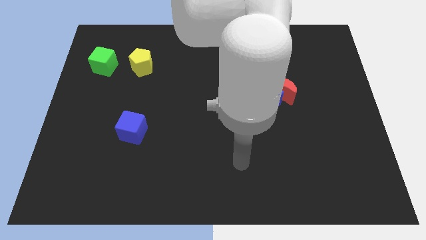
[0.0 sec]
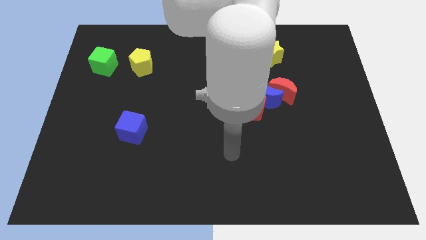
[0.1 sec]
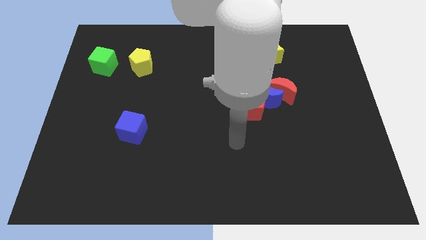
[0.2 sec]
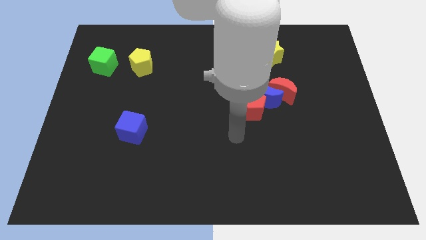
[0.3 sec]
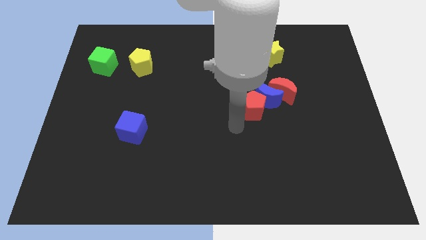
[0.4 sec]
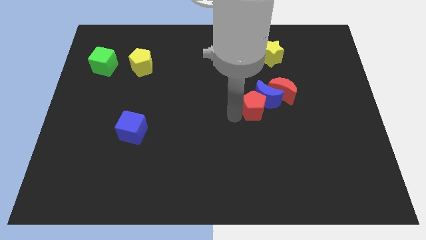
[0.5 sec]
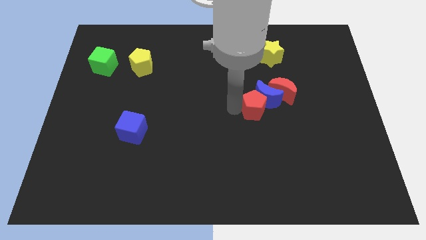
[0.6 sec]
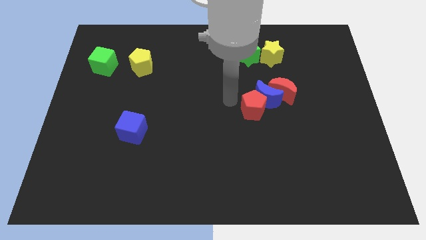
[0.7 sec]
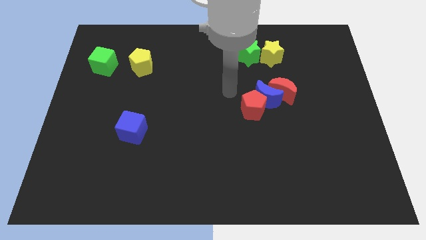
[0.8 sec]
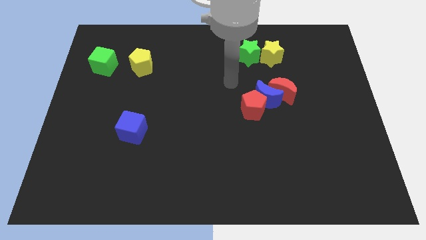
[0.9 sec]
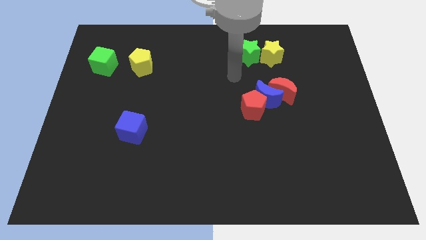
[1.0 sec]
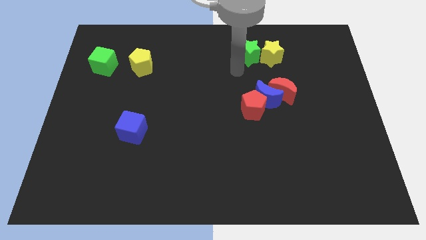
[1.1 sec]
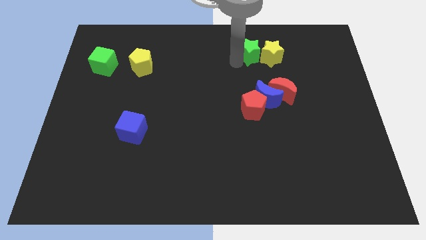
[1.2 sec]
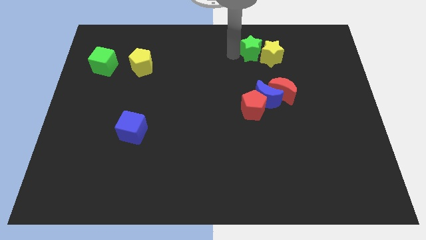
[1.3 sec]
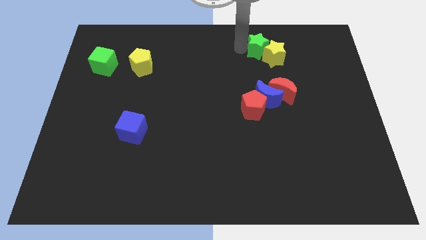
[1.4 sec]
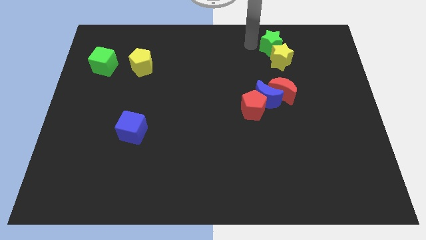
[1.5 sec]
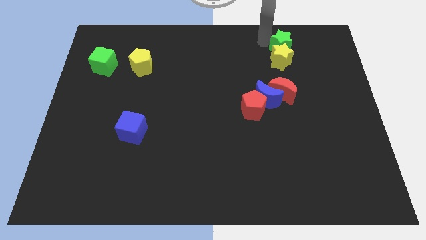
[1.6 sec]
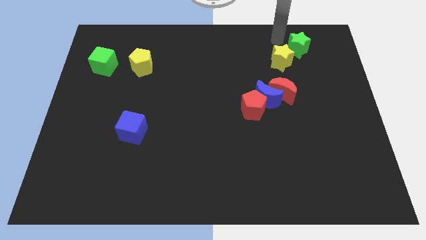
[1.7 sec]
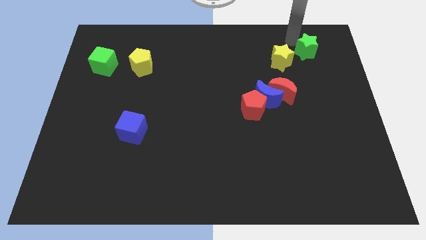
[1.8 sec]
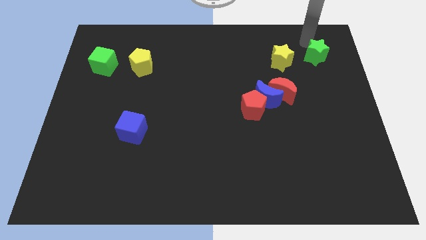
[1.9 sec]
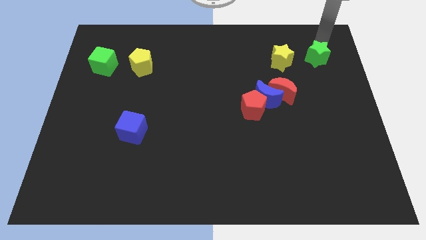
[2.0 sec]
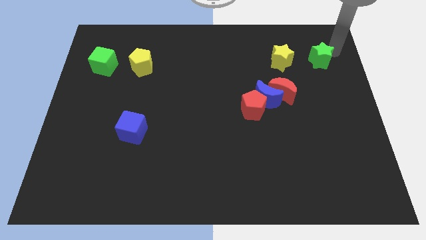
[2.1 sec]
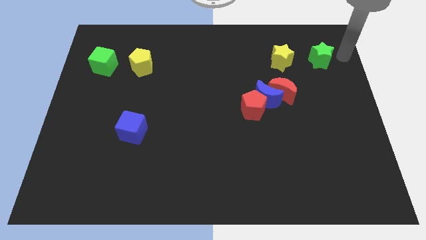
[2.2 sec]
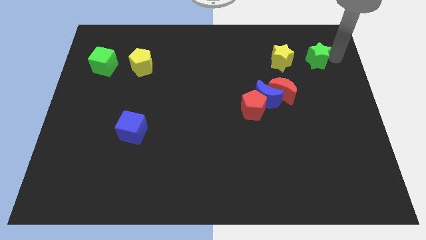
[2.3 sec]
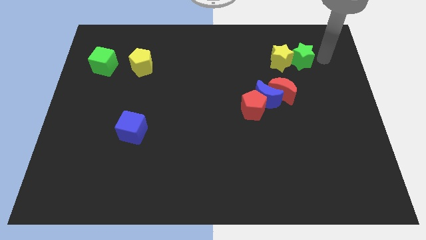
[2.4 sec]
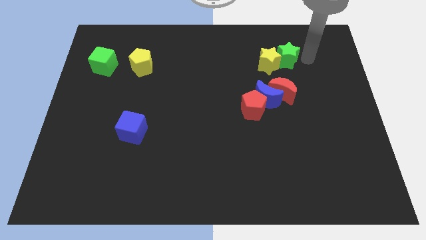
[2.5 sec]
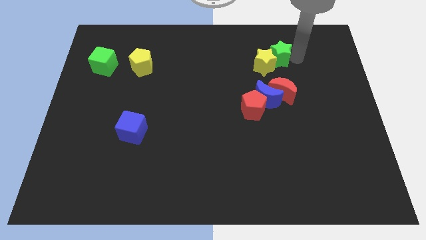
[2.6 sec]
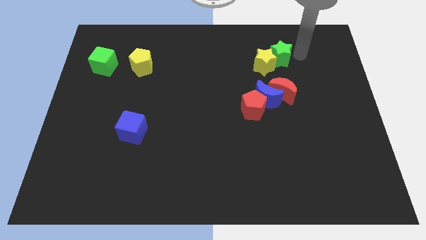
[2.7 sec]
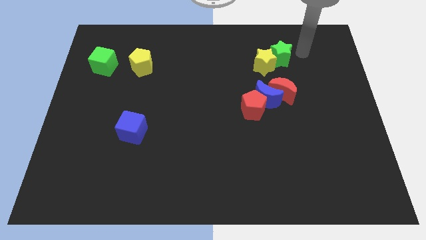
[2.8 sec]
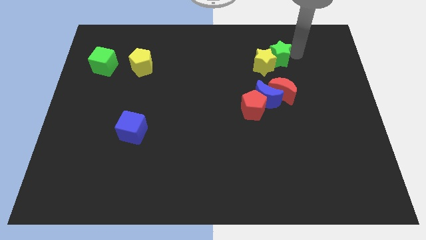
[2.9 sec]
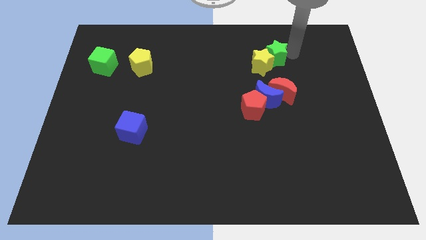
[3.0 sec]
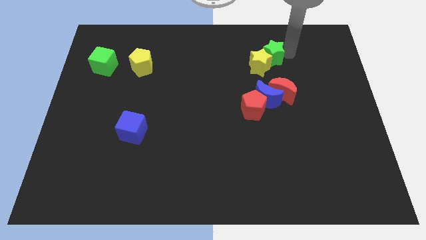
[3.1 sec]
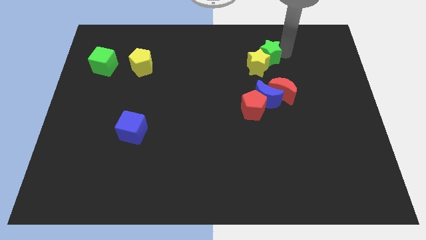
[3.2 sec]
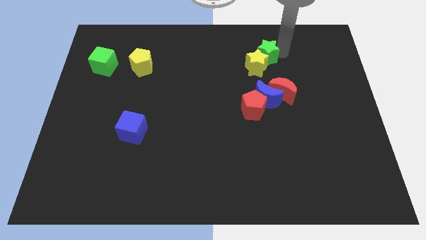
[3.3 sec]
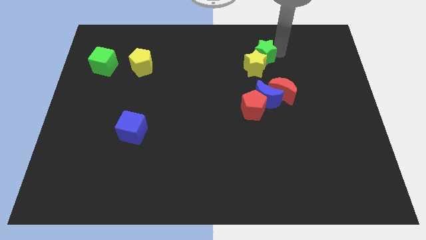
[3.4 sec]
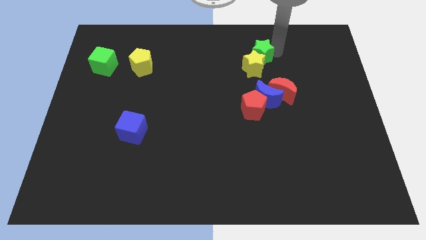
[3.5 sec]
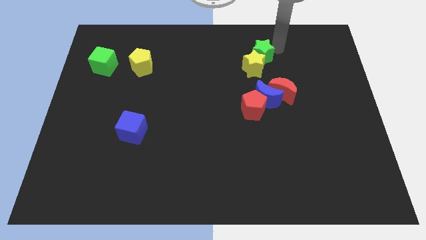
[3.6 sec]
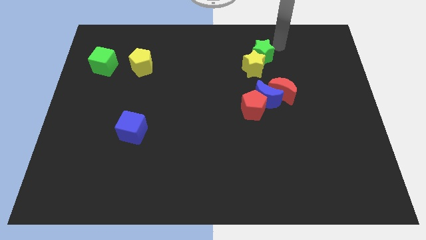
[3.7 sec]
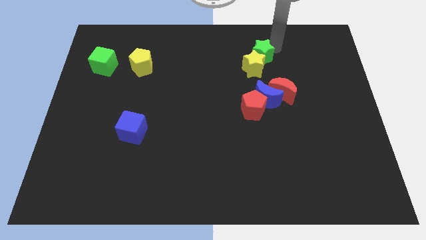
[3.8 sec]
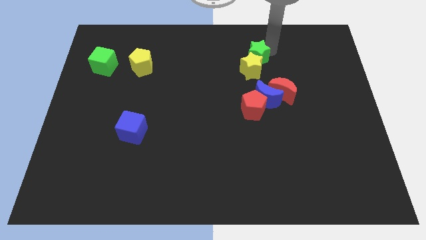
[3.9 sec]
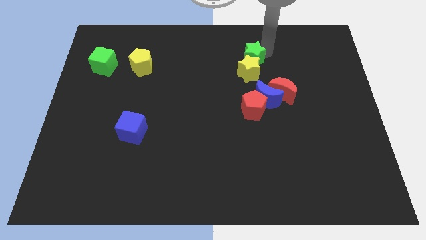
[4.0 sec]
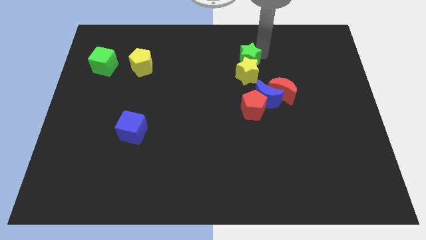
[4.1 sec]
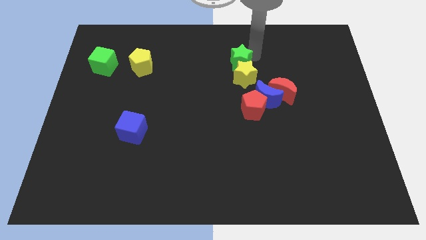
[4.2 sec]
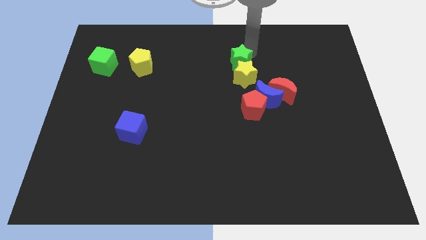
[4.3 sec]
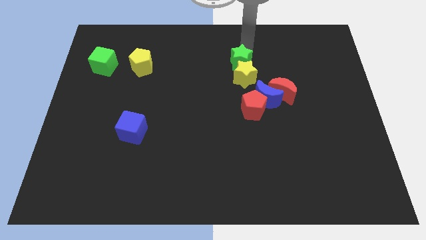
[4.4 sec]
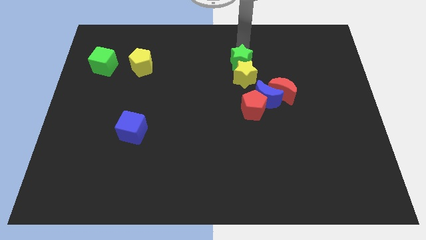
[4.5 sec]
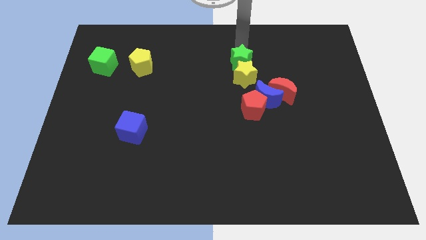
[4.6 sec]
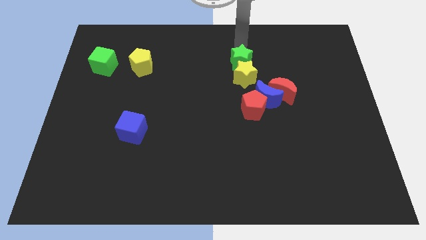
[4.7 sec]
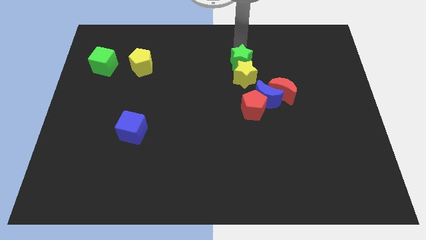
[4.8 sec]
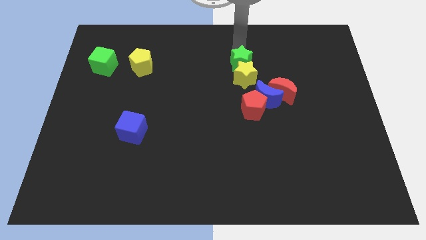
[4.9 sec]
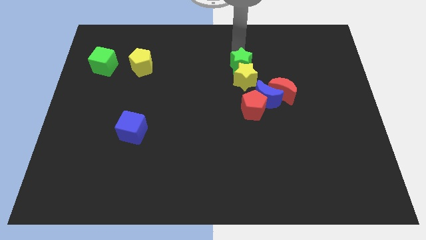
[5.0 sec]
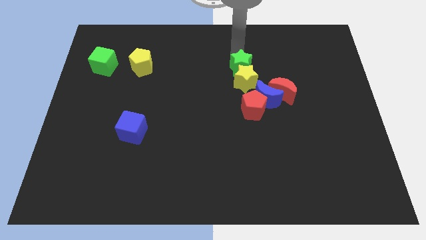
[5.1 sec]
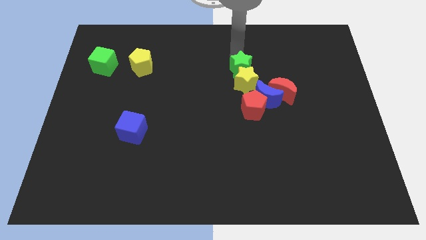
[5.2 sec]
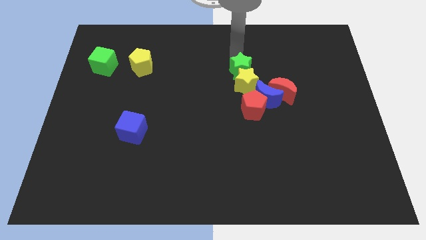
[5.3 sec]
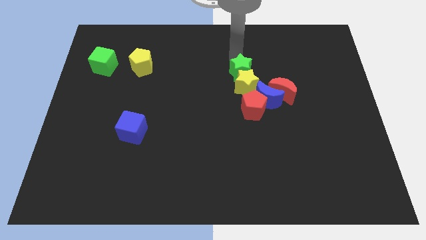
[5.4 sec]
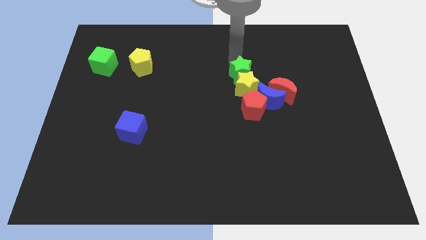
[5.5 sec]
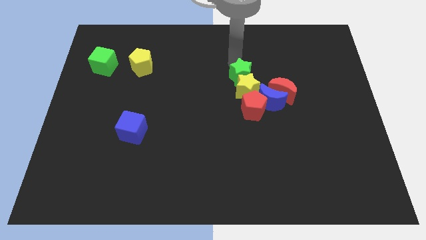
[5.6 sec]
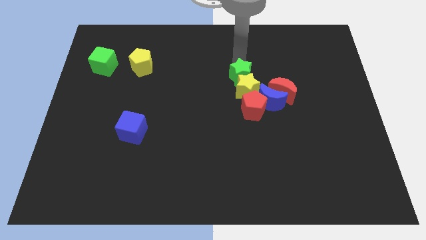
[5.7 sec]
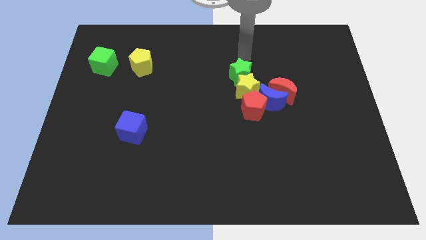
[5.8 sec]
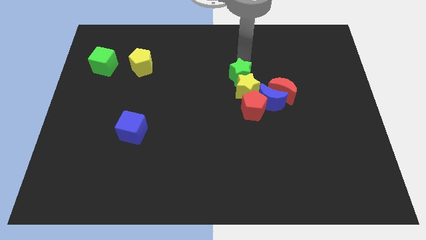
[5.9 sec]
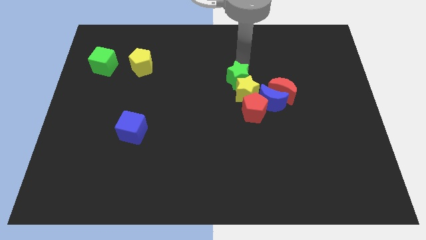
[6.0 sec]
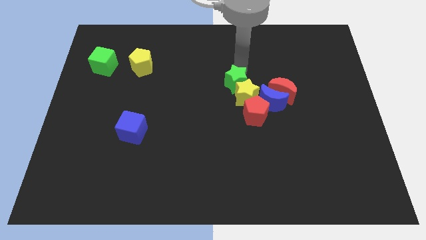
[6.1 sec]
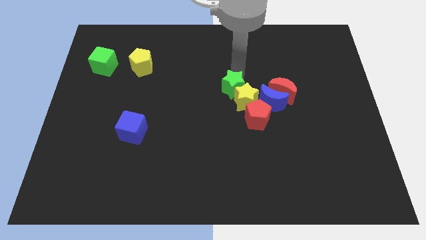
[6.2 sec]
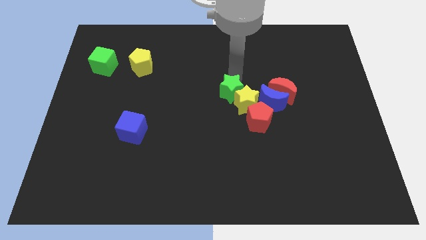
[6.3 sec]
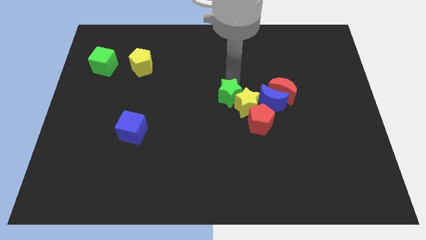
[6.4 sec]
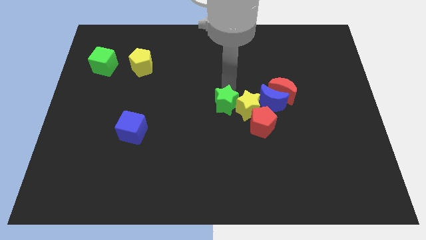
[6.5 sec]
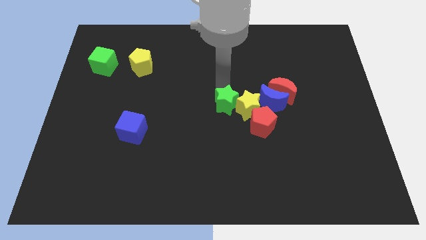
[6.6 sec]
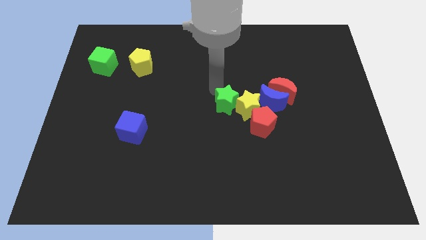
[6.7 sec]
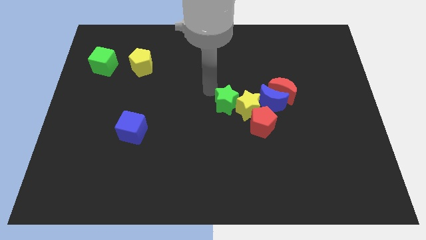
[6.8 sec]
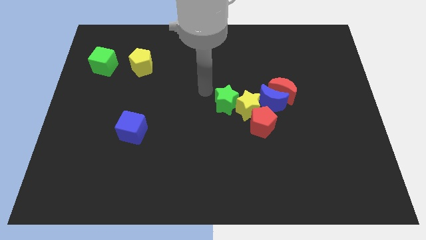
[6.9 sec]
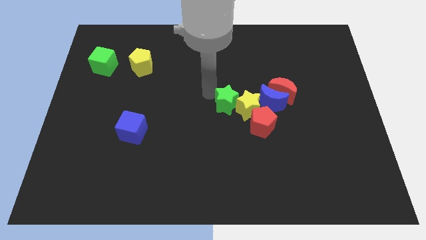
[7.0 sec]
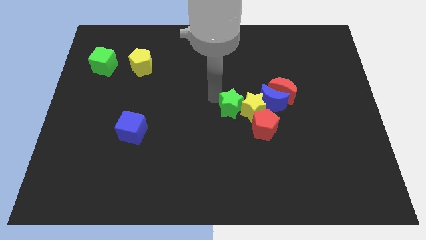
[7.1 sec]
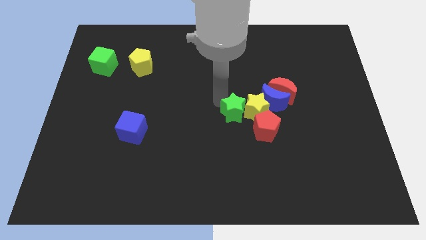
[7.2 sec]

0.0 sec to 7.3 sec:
move the green star diagonally down and to the left of the blue moon
